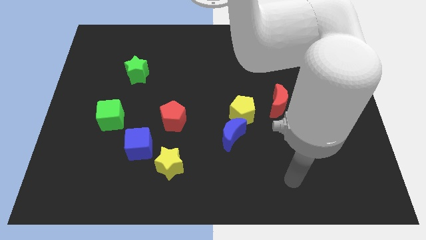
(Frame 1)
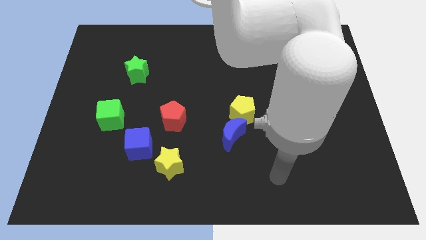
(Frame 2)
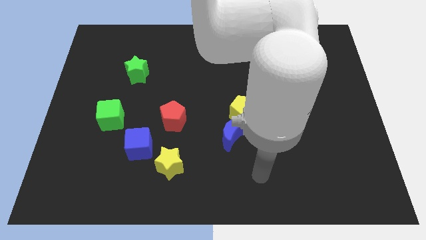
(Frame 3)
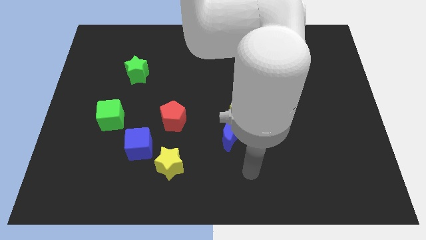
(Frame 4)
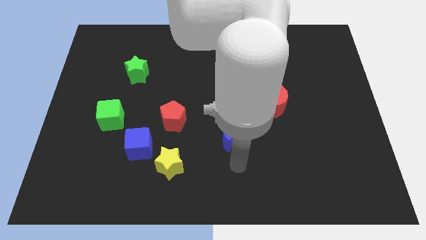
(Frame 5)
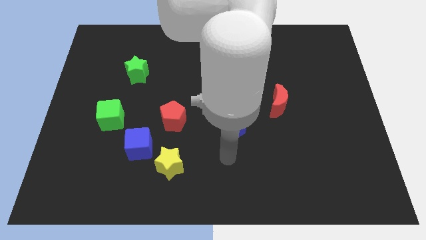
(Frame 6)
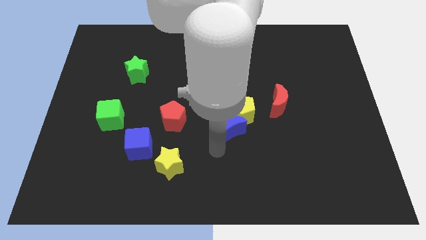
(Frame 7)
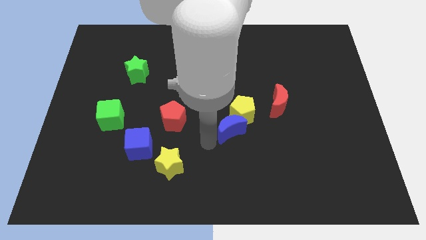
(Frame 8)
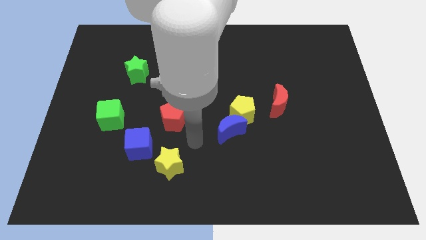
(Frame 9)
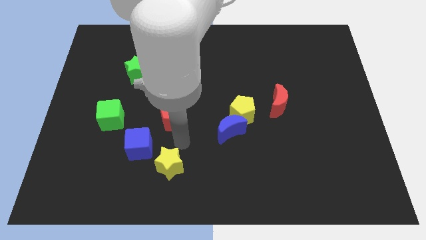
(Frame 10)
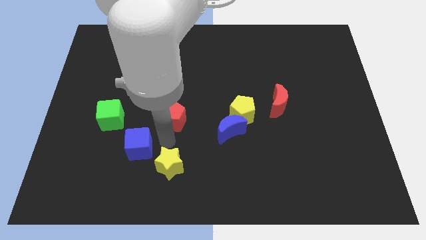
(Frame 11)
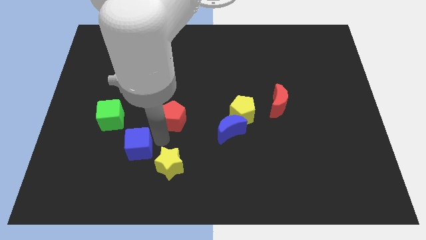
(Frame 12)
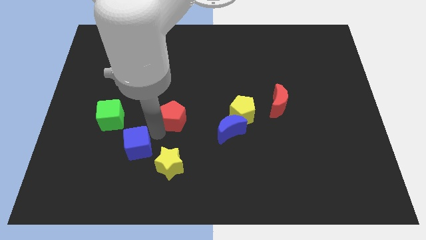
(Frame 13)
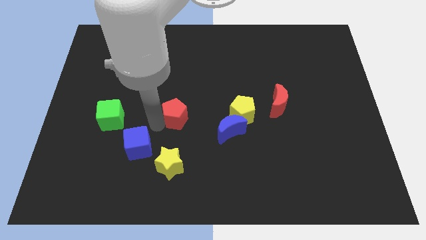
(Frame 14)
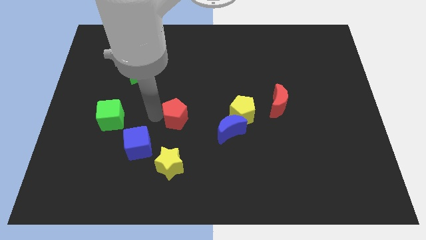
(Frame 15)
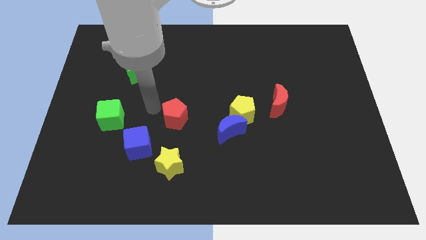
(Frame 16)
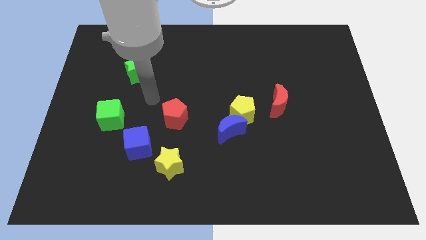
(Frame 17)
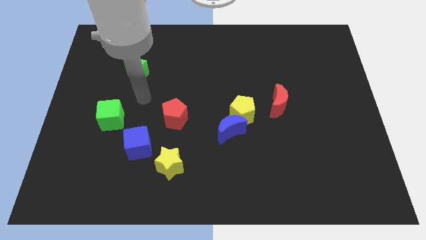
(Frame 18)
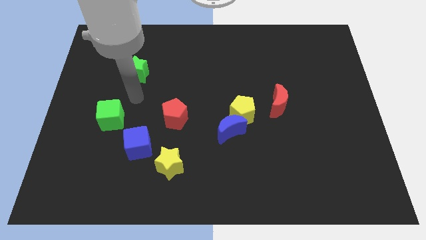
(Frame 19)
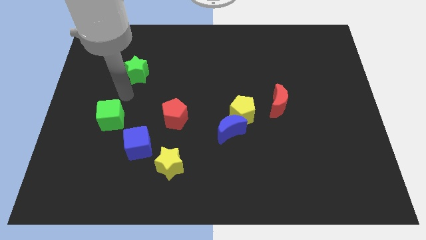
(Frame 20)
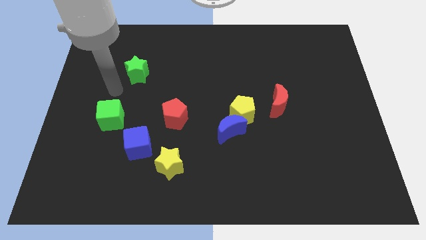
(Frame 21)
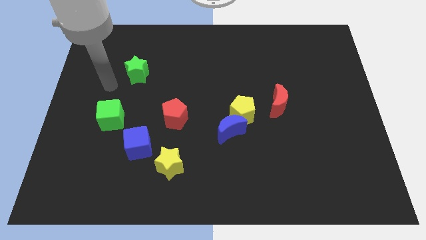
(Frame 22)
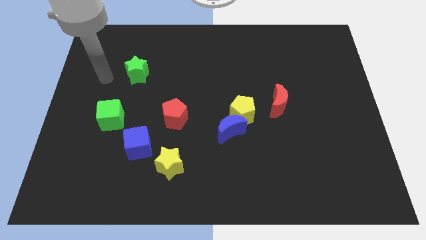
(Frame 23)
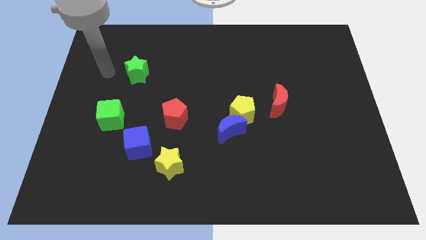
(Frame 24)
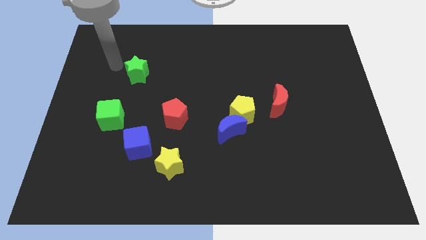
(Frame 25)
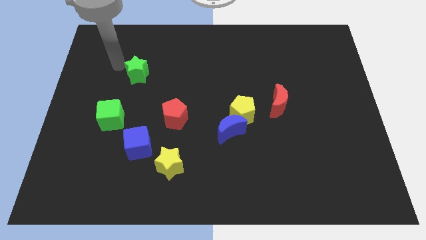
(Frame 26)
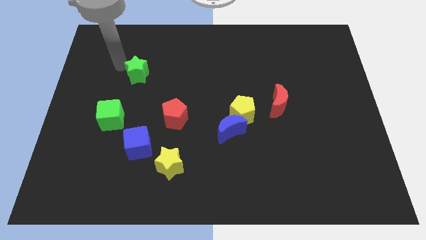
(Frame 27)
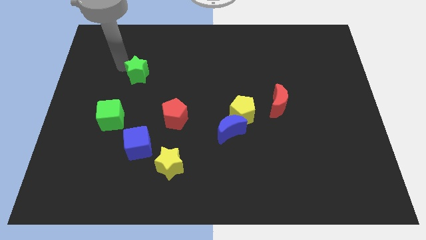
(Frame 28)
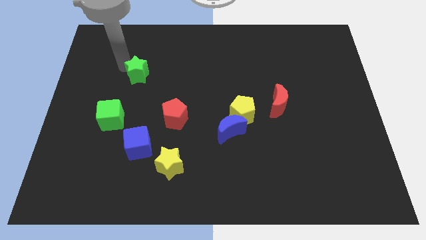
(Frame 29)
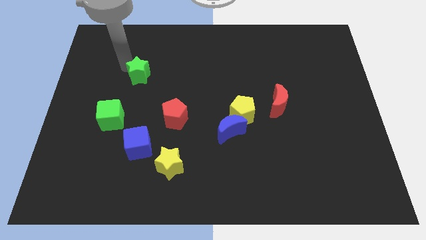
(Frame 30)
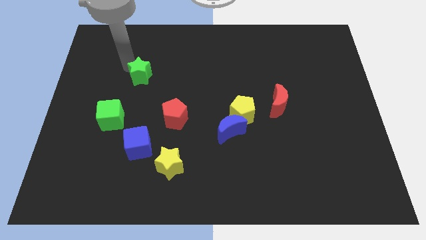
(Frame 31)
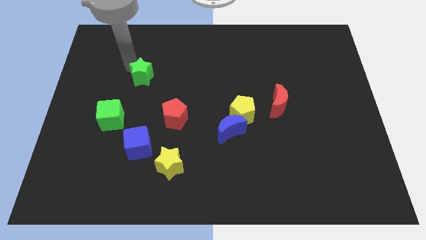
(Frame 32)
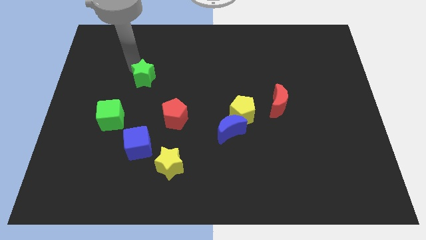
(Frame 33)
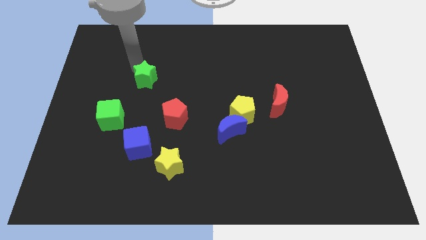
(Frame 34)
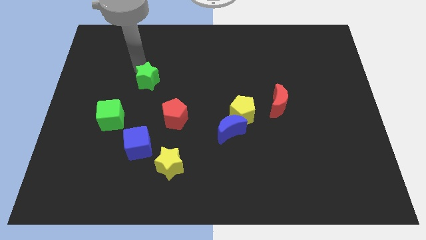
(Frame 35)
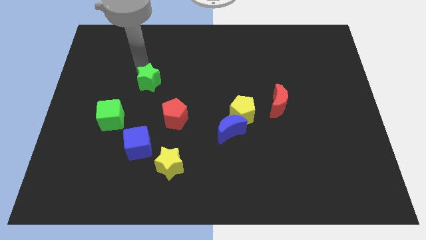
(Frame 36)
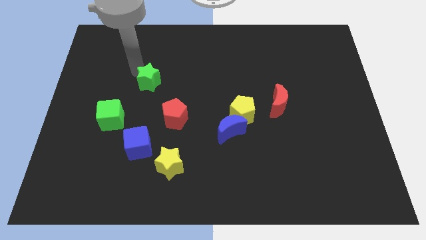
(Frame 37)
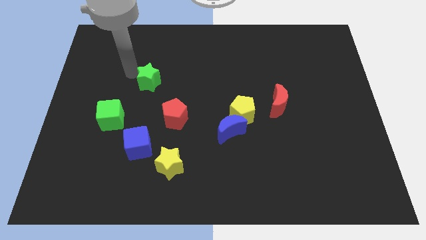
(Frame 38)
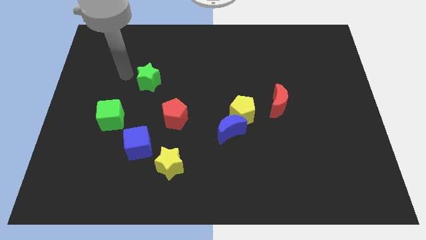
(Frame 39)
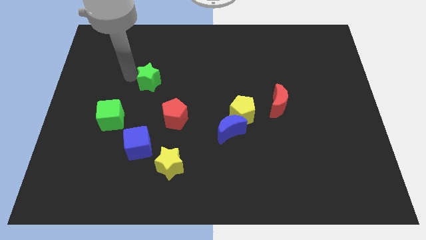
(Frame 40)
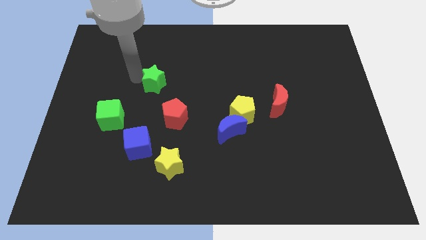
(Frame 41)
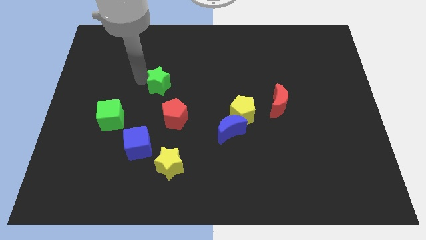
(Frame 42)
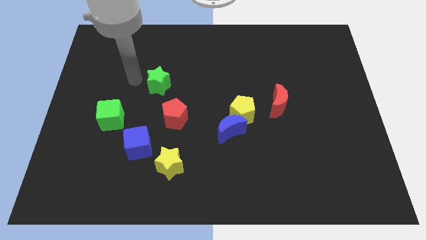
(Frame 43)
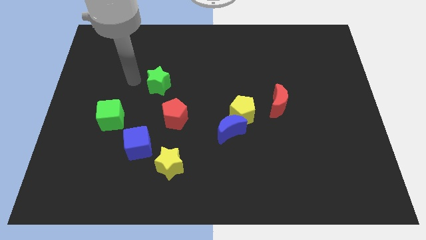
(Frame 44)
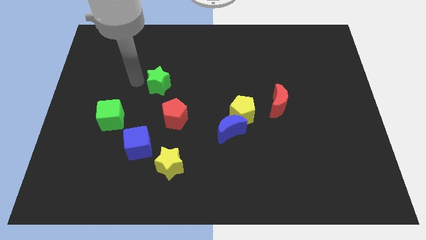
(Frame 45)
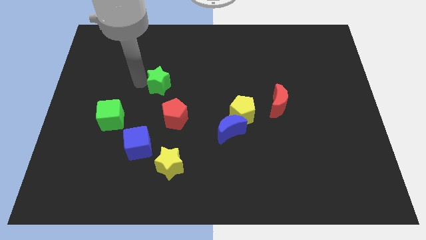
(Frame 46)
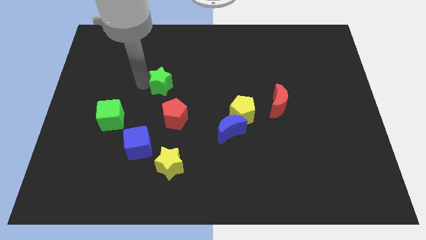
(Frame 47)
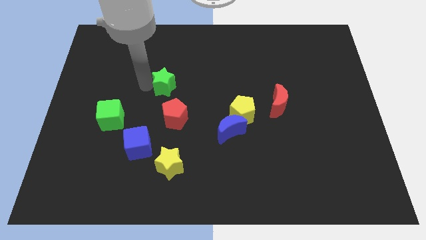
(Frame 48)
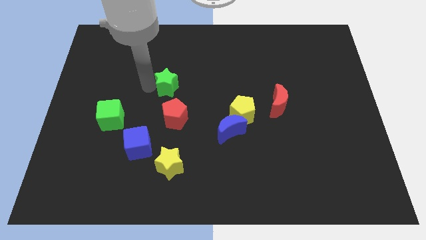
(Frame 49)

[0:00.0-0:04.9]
put the green star to the center

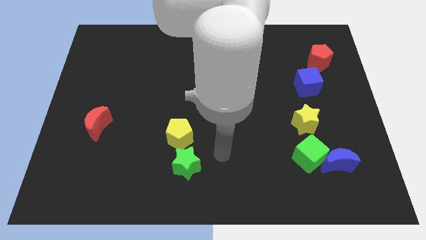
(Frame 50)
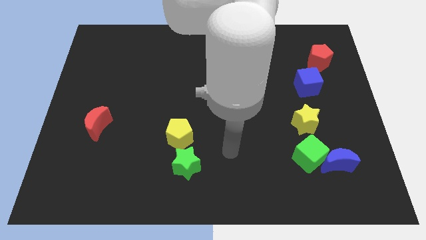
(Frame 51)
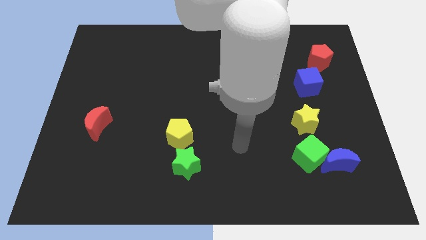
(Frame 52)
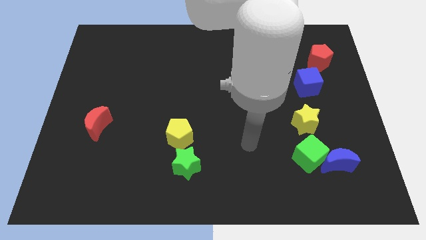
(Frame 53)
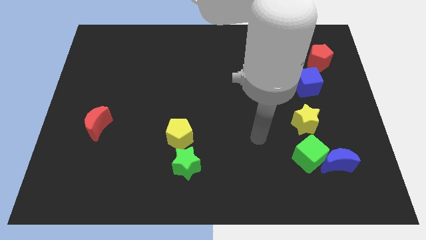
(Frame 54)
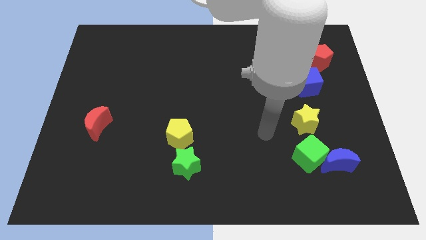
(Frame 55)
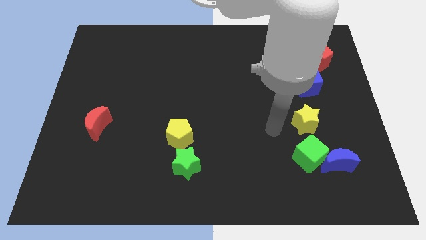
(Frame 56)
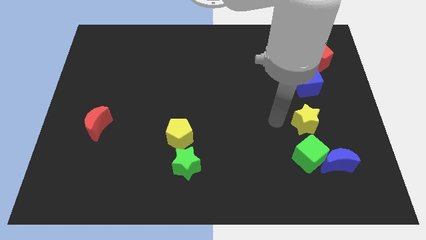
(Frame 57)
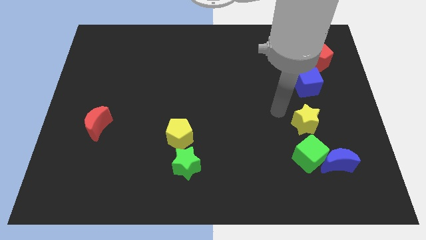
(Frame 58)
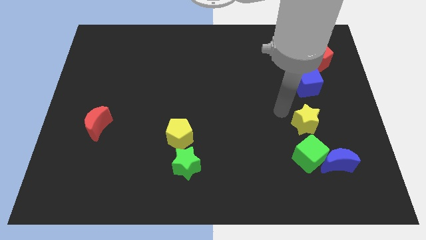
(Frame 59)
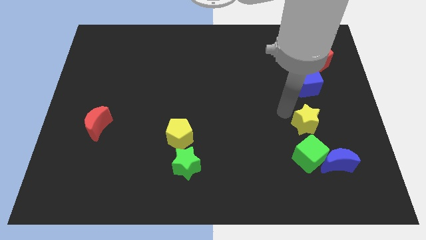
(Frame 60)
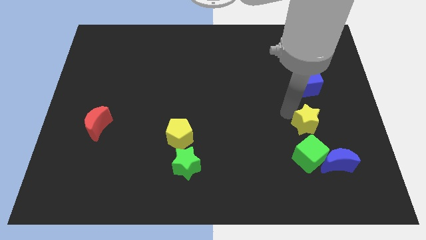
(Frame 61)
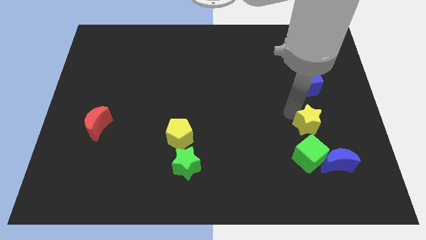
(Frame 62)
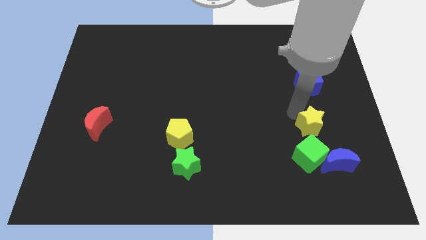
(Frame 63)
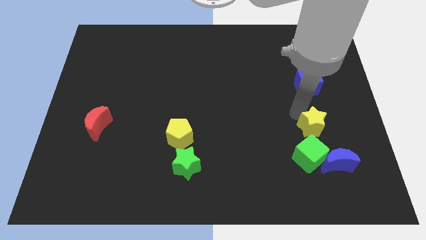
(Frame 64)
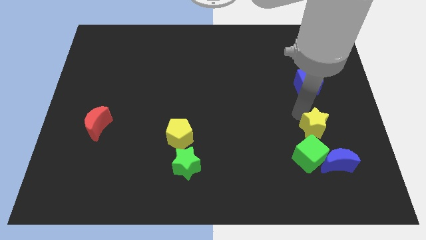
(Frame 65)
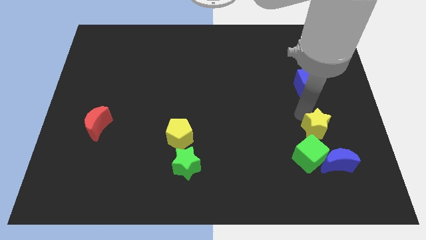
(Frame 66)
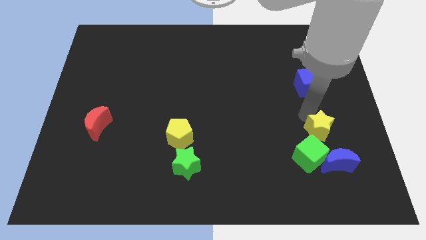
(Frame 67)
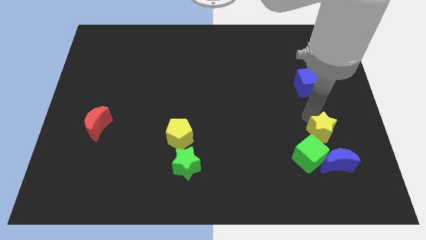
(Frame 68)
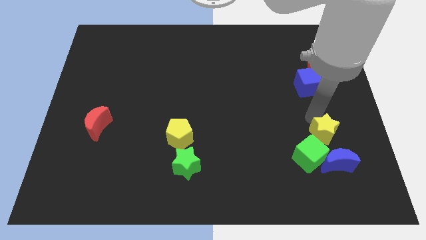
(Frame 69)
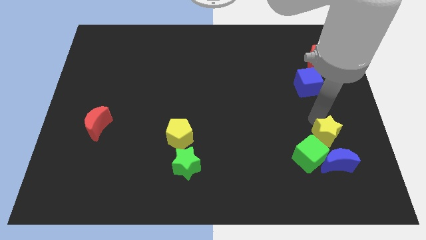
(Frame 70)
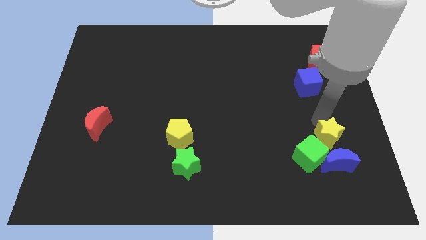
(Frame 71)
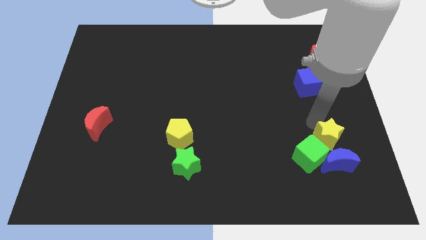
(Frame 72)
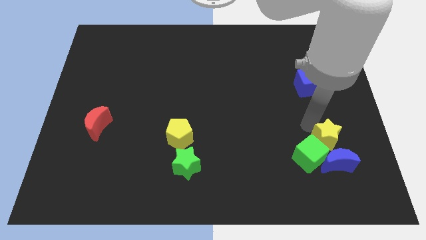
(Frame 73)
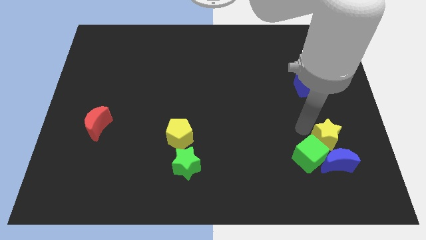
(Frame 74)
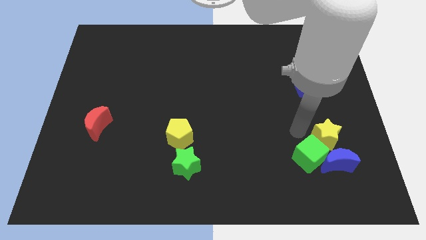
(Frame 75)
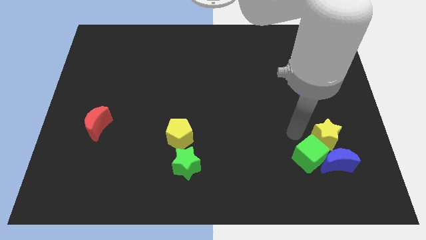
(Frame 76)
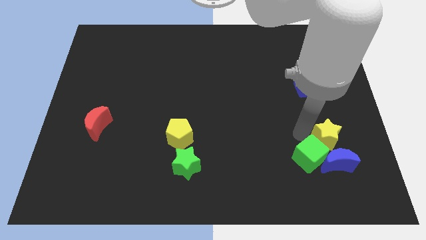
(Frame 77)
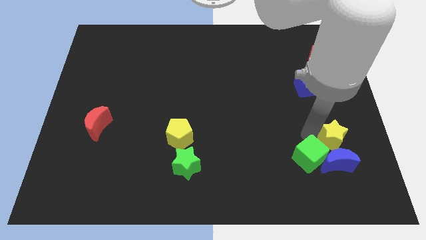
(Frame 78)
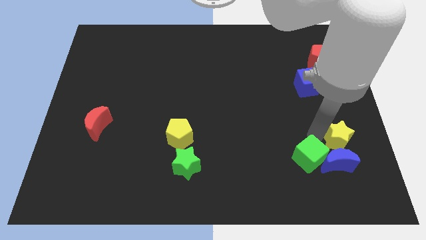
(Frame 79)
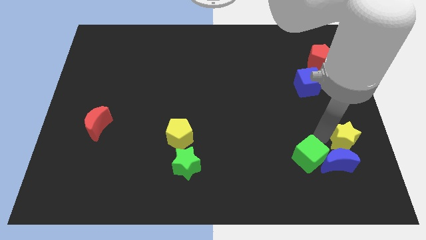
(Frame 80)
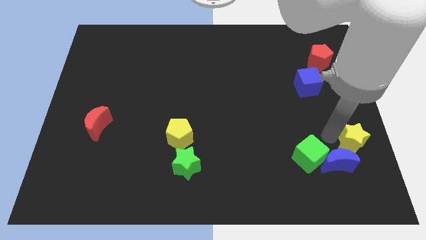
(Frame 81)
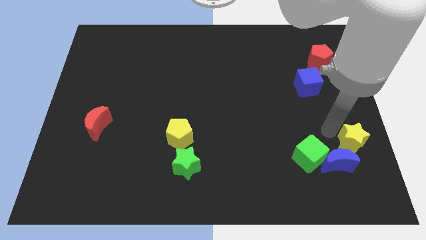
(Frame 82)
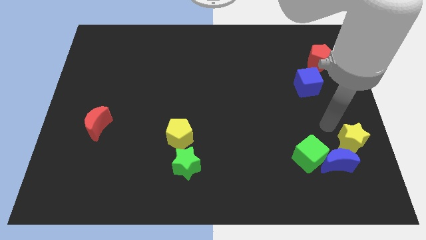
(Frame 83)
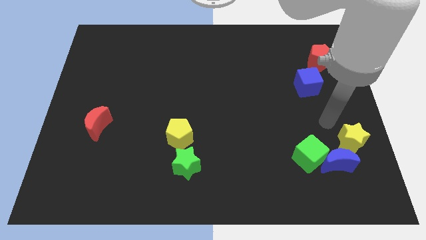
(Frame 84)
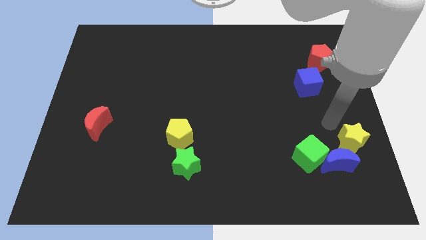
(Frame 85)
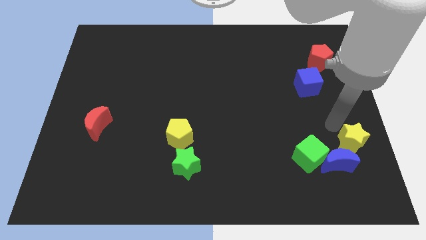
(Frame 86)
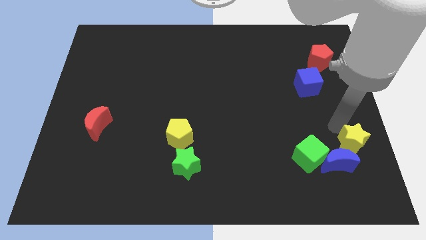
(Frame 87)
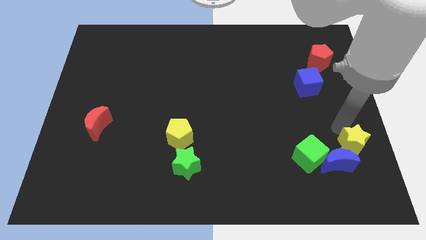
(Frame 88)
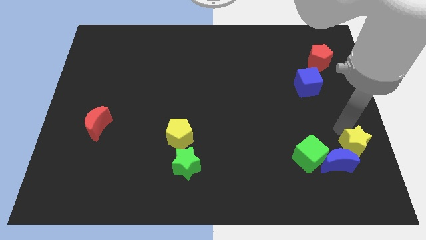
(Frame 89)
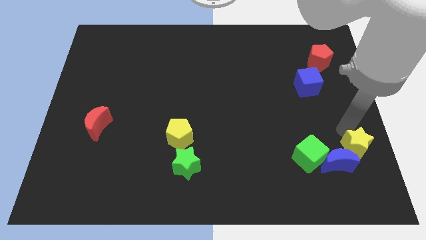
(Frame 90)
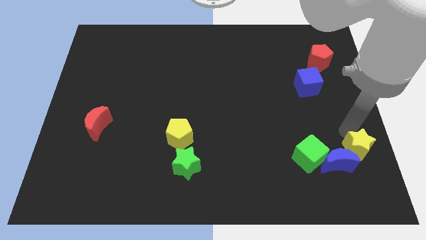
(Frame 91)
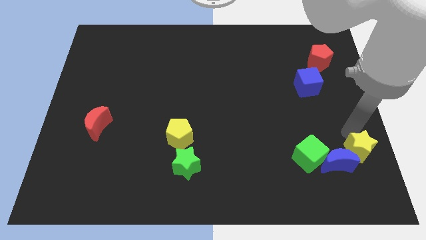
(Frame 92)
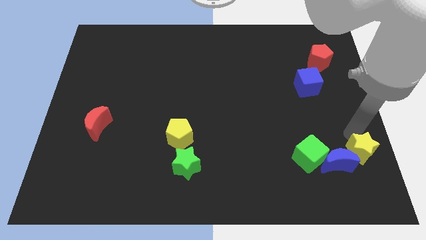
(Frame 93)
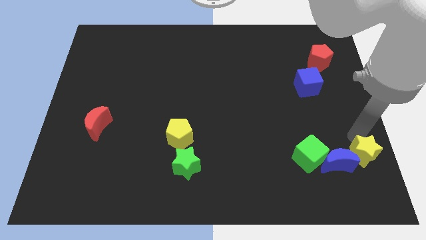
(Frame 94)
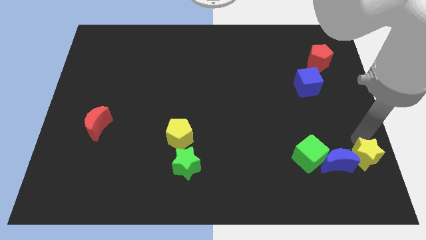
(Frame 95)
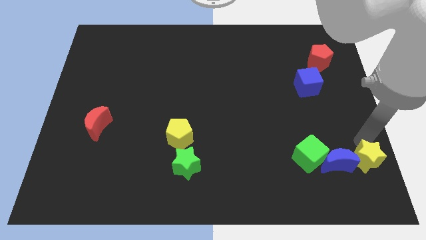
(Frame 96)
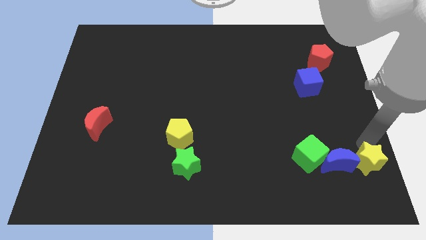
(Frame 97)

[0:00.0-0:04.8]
put the yellow star to the bottom right of the board
